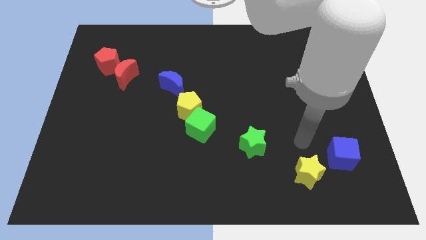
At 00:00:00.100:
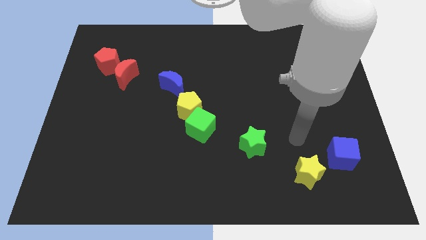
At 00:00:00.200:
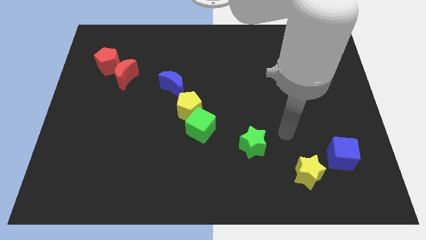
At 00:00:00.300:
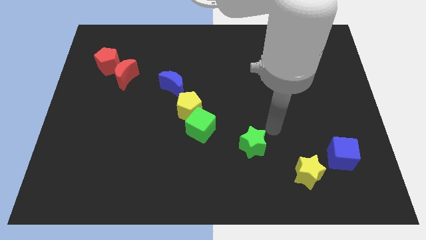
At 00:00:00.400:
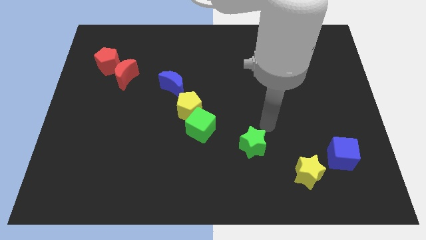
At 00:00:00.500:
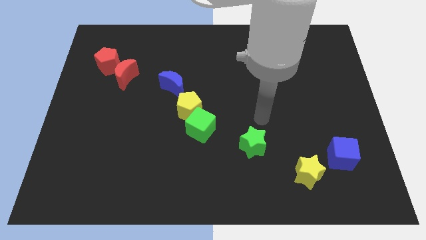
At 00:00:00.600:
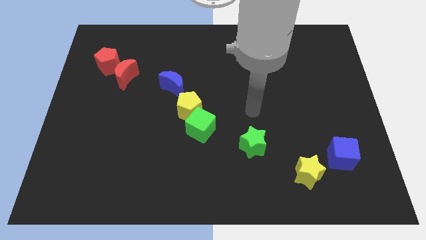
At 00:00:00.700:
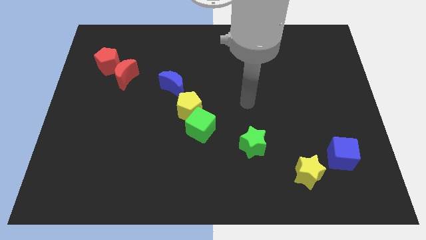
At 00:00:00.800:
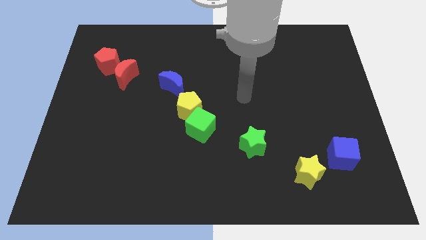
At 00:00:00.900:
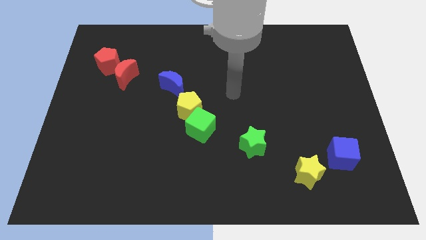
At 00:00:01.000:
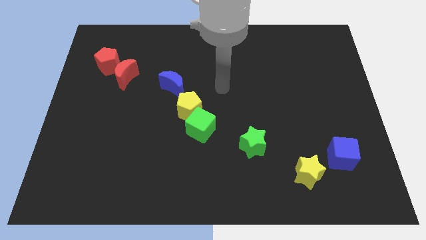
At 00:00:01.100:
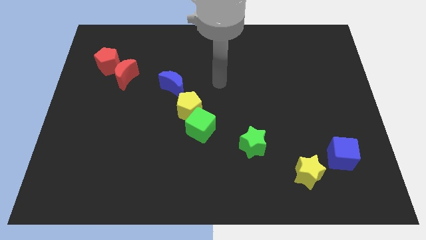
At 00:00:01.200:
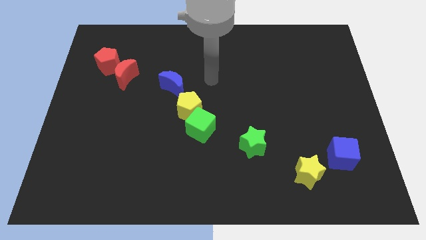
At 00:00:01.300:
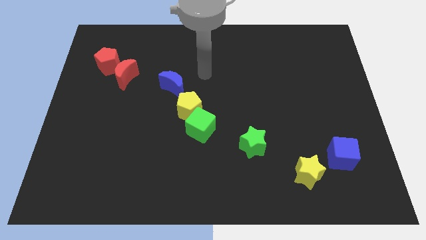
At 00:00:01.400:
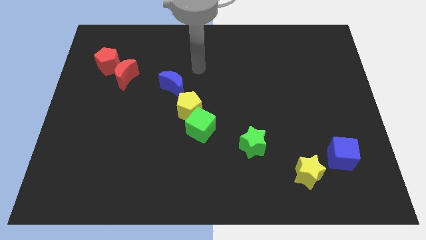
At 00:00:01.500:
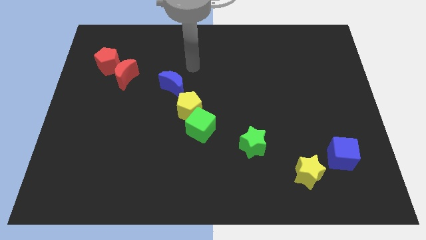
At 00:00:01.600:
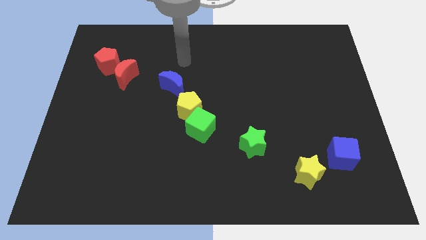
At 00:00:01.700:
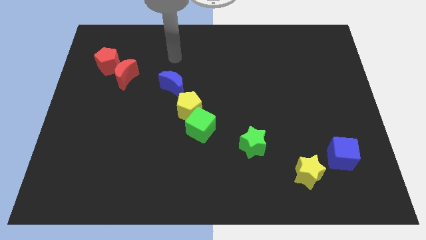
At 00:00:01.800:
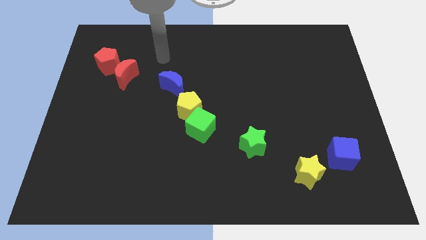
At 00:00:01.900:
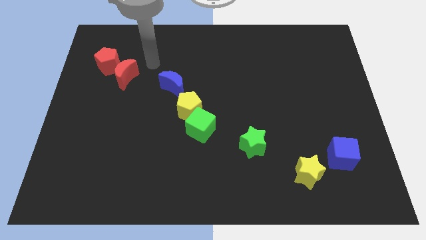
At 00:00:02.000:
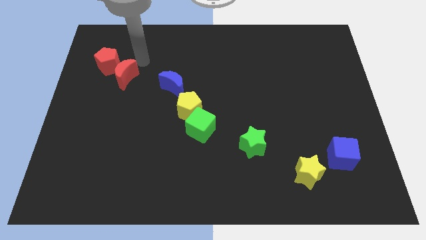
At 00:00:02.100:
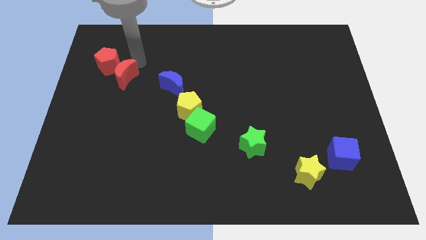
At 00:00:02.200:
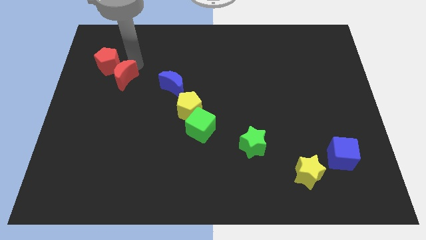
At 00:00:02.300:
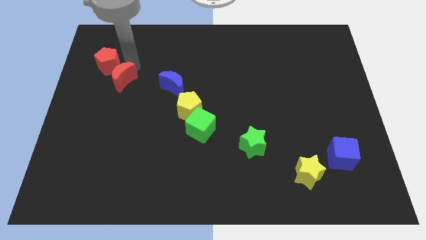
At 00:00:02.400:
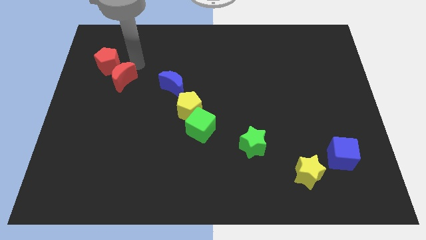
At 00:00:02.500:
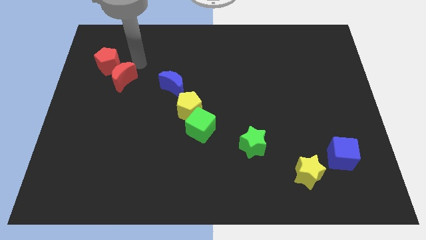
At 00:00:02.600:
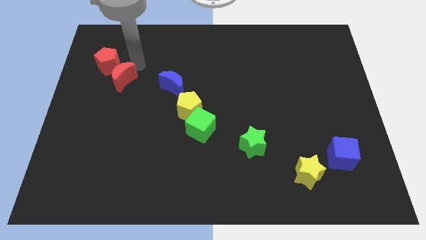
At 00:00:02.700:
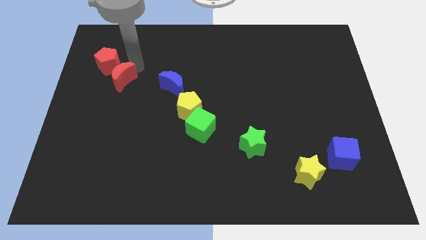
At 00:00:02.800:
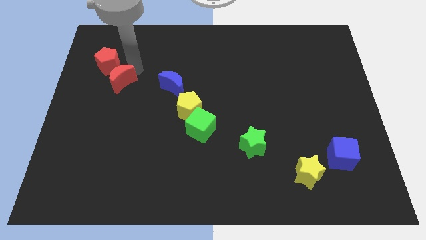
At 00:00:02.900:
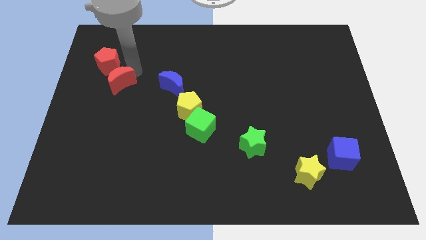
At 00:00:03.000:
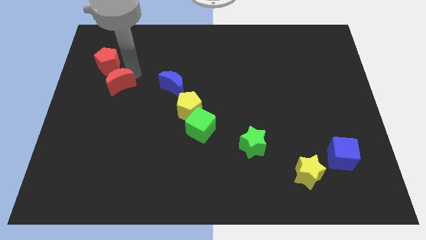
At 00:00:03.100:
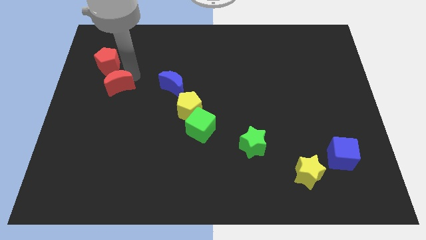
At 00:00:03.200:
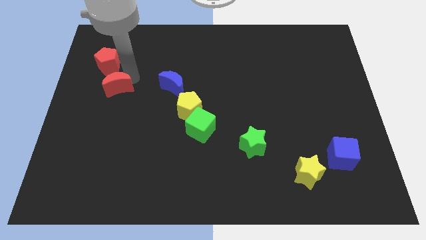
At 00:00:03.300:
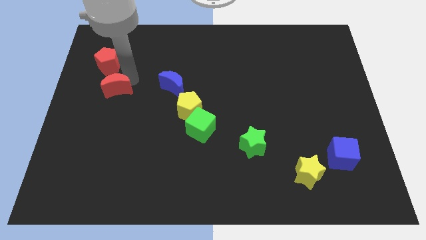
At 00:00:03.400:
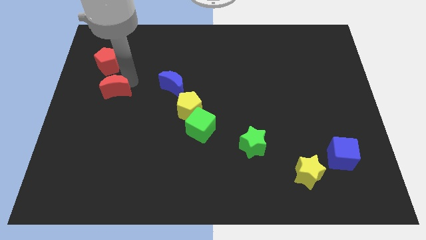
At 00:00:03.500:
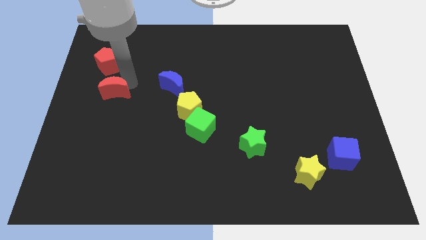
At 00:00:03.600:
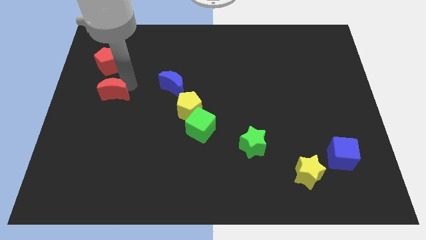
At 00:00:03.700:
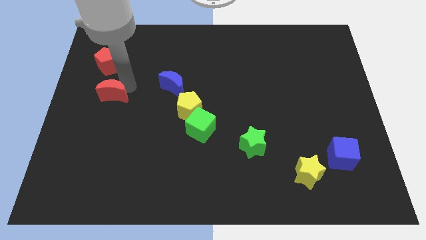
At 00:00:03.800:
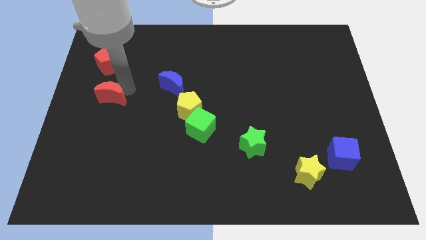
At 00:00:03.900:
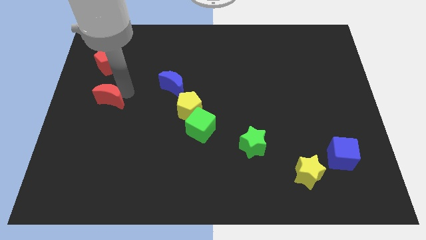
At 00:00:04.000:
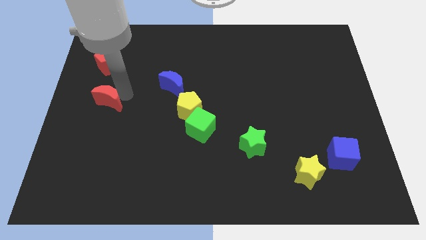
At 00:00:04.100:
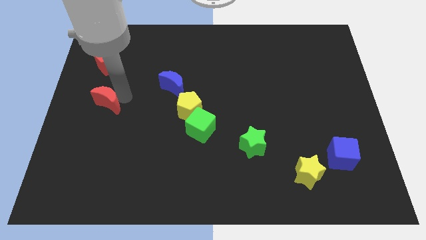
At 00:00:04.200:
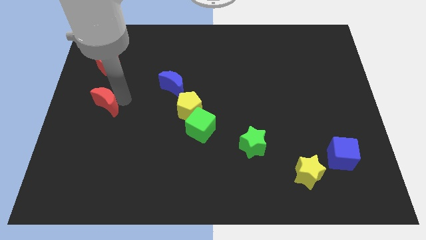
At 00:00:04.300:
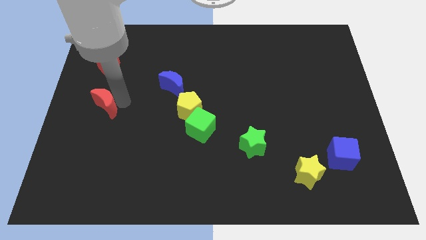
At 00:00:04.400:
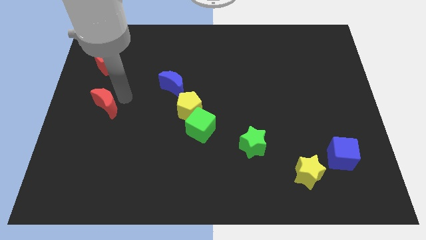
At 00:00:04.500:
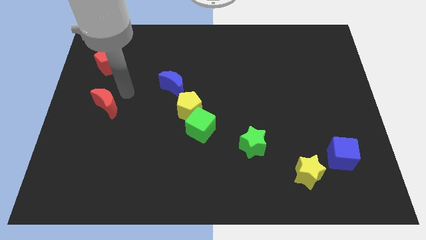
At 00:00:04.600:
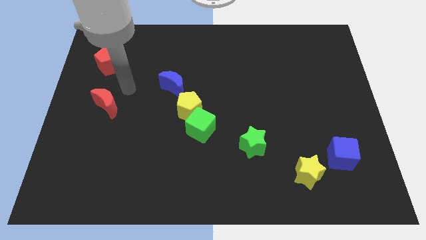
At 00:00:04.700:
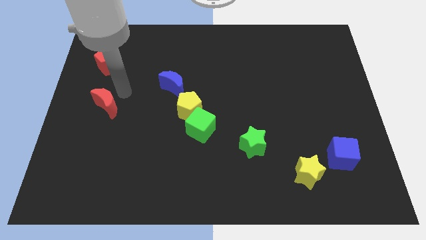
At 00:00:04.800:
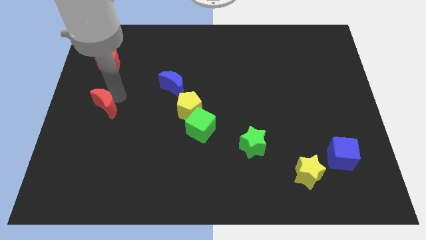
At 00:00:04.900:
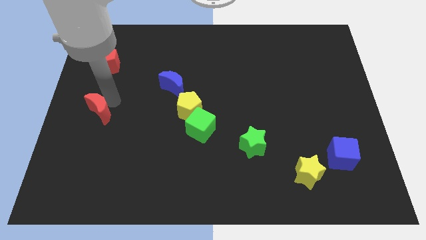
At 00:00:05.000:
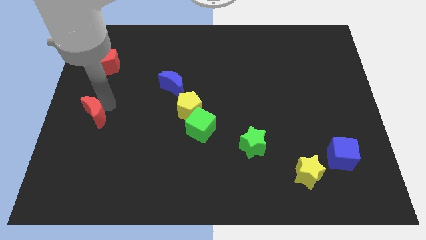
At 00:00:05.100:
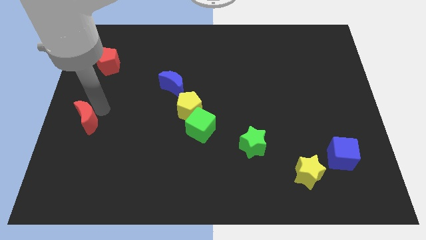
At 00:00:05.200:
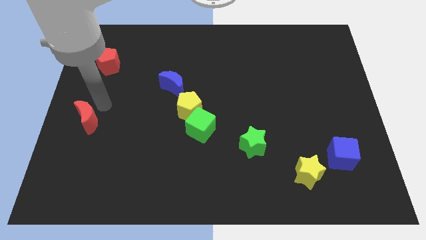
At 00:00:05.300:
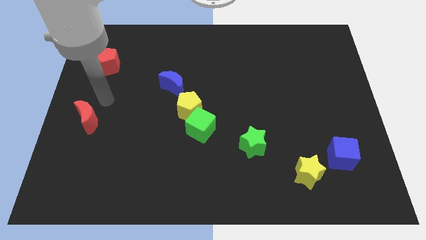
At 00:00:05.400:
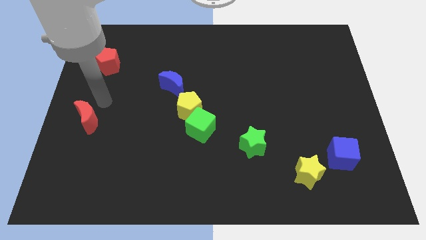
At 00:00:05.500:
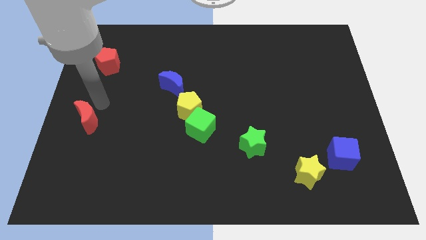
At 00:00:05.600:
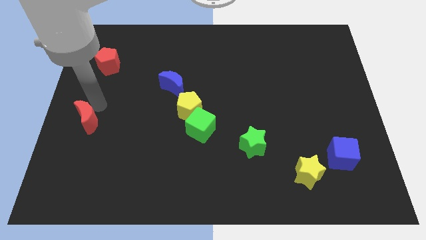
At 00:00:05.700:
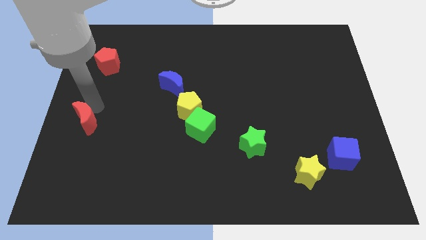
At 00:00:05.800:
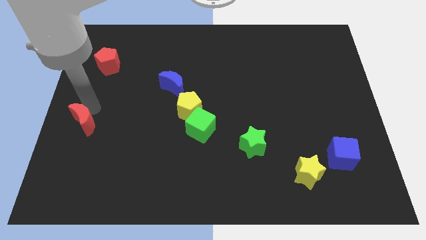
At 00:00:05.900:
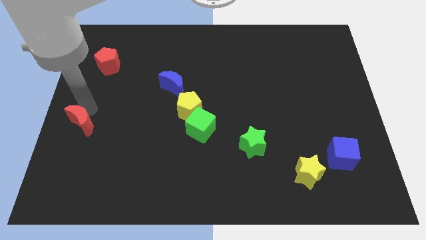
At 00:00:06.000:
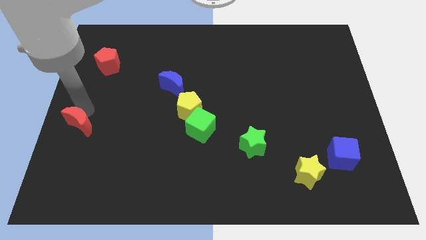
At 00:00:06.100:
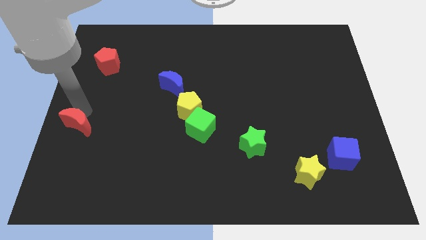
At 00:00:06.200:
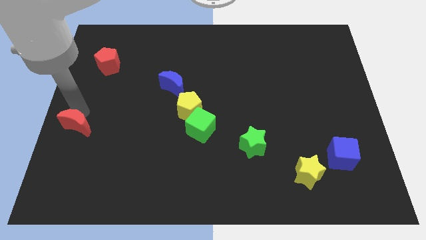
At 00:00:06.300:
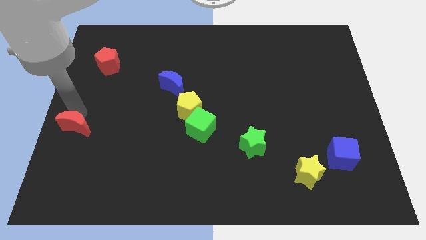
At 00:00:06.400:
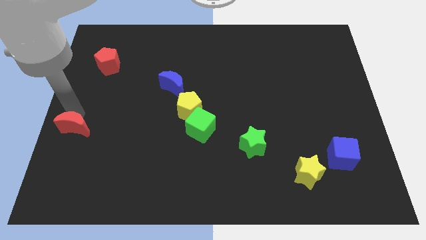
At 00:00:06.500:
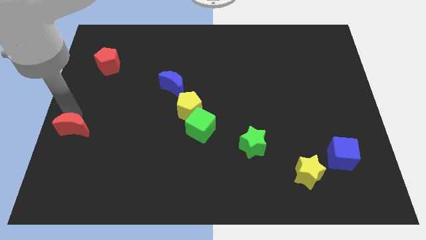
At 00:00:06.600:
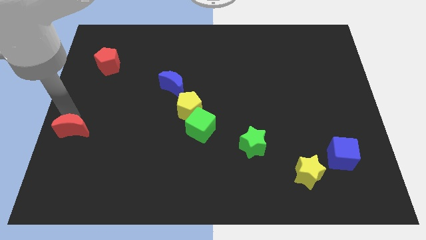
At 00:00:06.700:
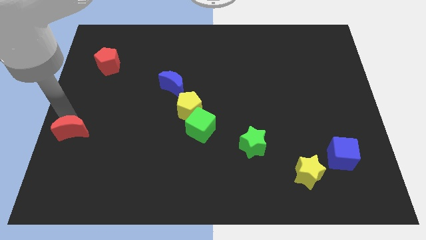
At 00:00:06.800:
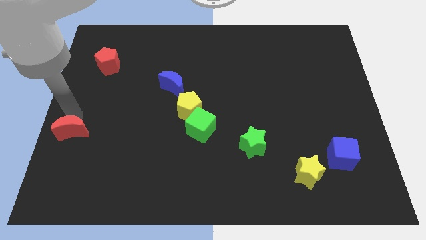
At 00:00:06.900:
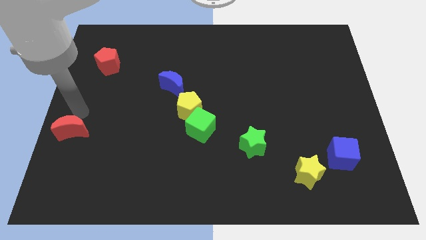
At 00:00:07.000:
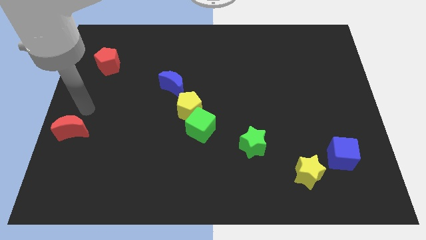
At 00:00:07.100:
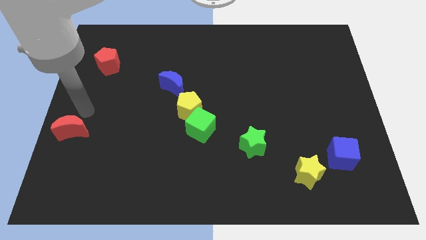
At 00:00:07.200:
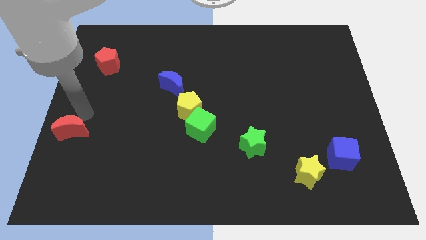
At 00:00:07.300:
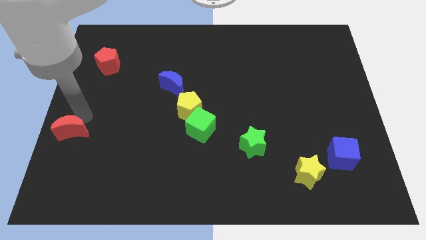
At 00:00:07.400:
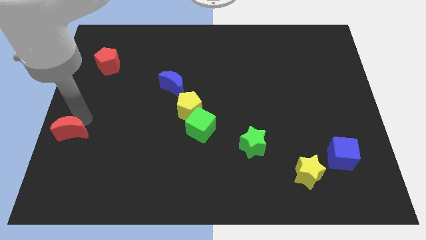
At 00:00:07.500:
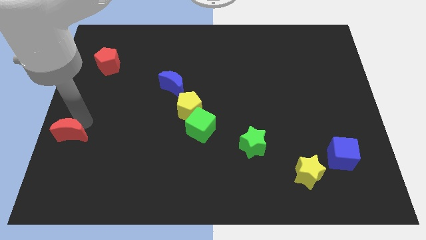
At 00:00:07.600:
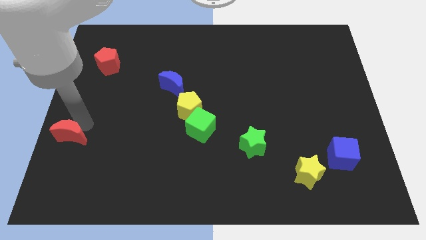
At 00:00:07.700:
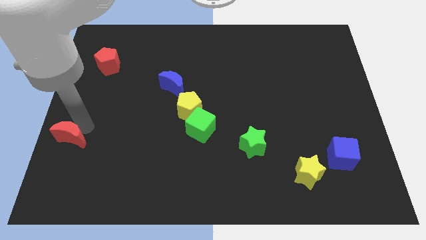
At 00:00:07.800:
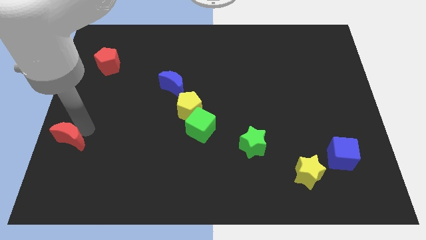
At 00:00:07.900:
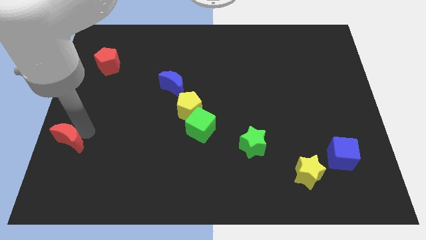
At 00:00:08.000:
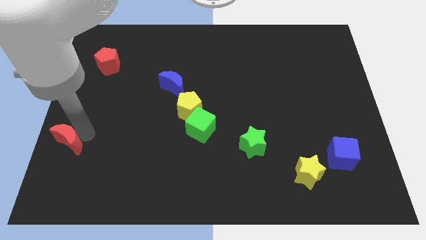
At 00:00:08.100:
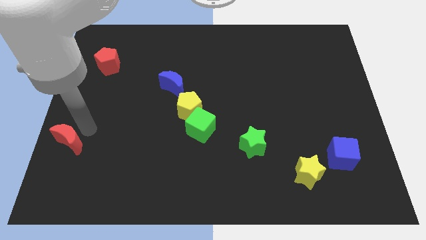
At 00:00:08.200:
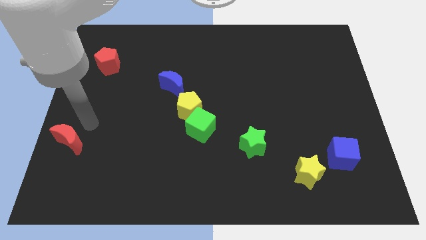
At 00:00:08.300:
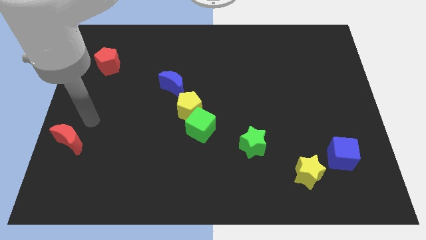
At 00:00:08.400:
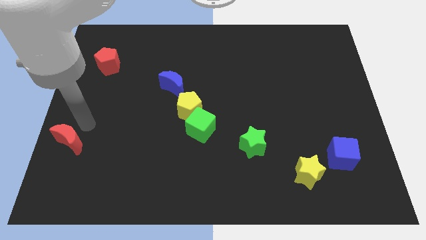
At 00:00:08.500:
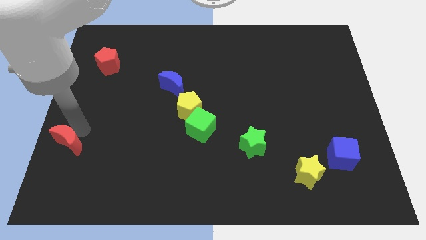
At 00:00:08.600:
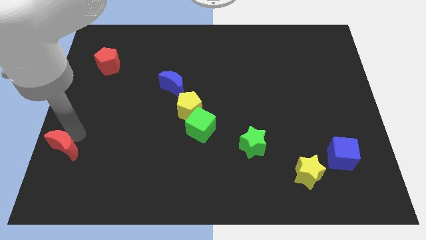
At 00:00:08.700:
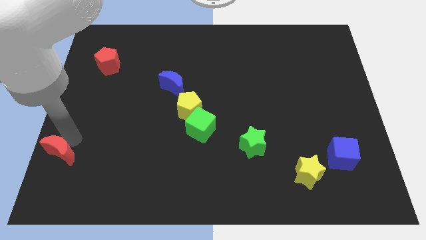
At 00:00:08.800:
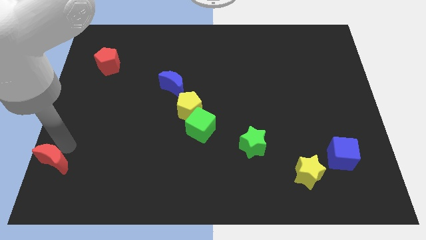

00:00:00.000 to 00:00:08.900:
push the red moon to the bottom left of the board
